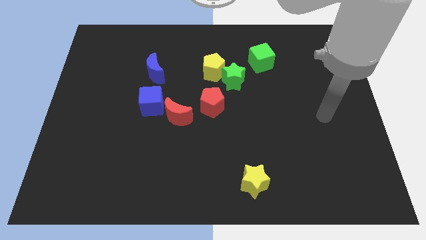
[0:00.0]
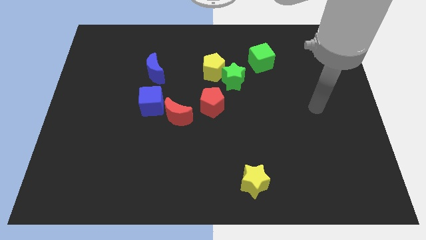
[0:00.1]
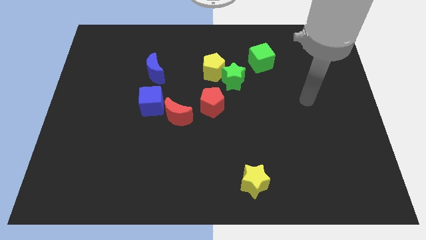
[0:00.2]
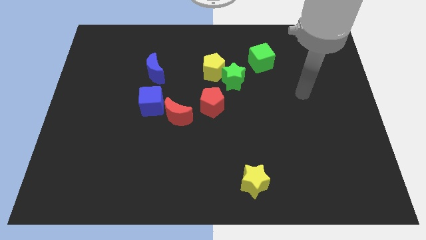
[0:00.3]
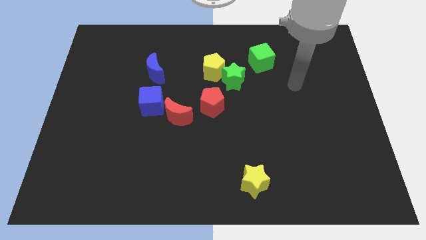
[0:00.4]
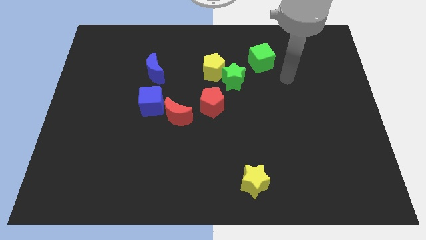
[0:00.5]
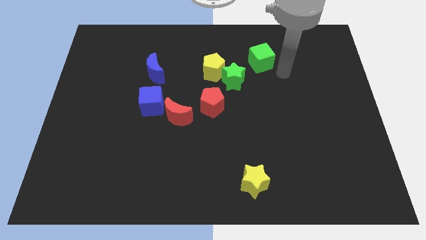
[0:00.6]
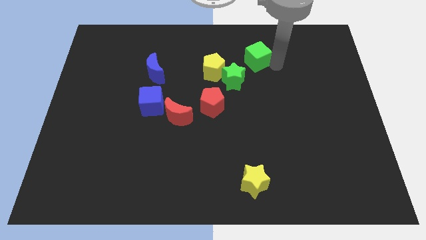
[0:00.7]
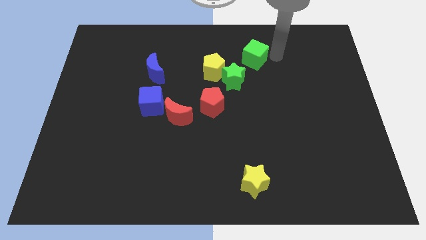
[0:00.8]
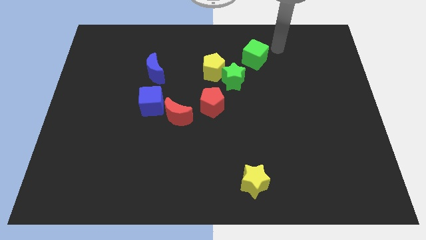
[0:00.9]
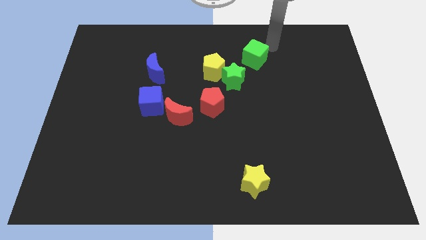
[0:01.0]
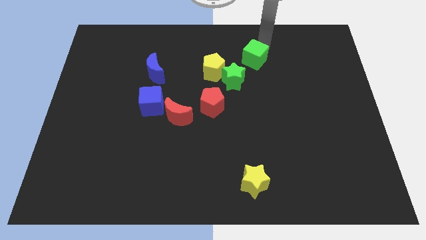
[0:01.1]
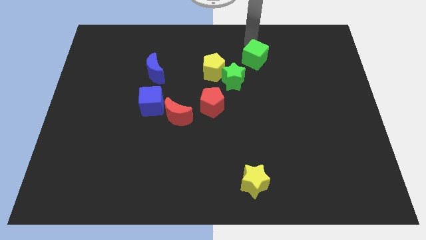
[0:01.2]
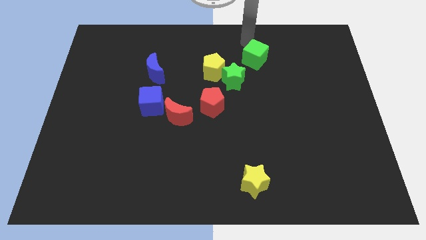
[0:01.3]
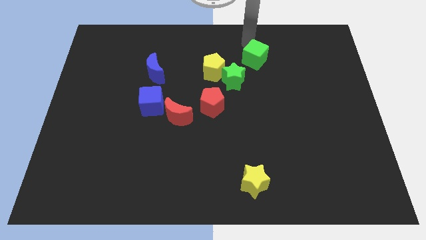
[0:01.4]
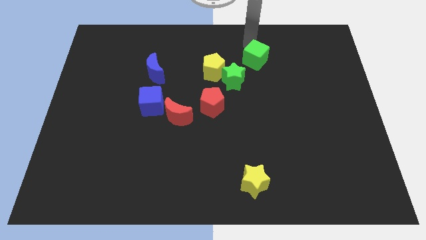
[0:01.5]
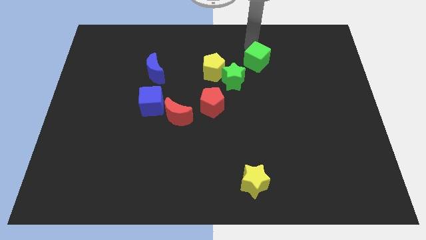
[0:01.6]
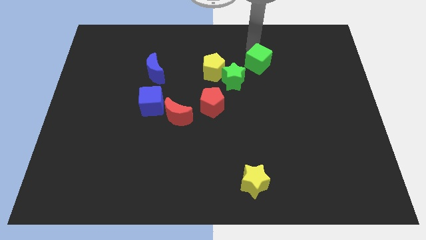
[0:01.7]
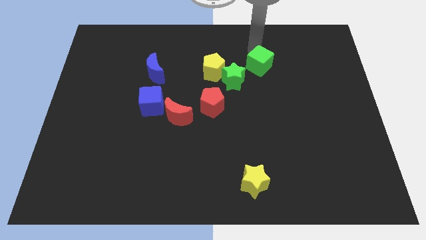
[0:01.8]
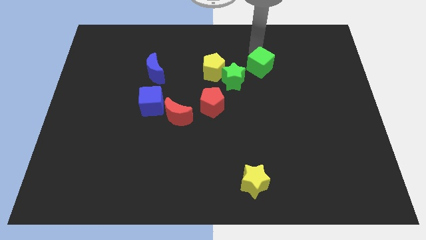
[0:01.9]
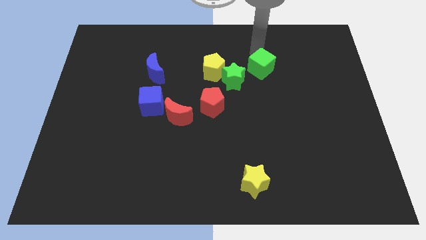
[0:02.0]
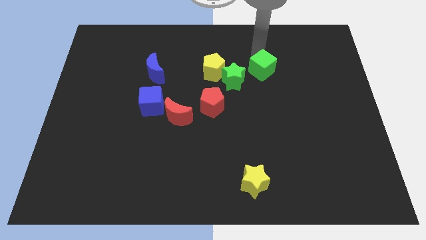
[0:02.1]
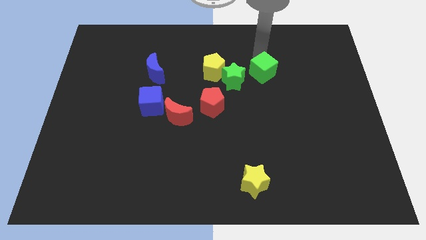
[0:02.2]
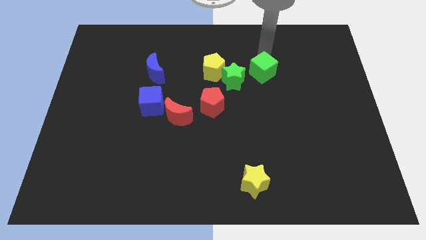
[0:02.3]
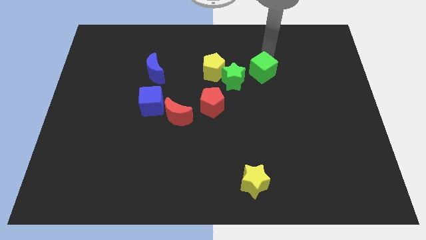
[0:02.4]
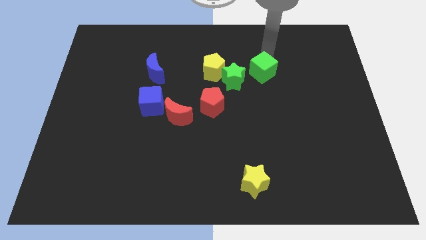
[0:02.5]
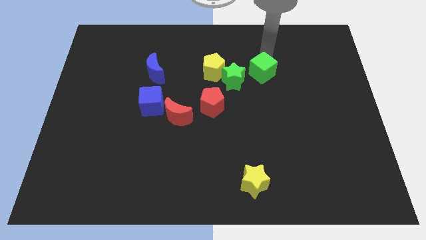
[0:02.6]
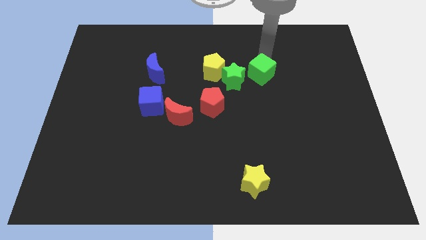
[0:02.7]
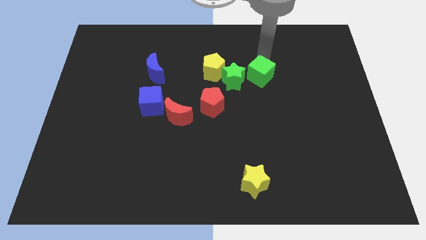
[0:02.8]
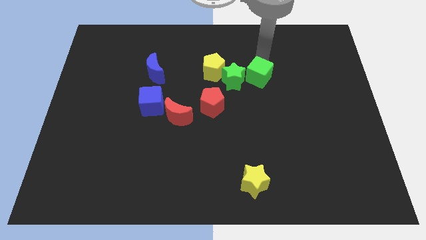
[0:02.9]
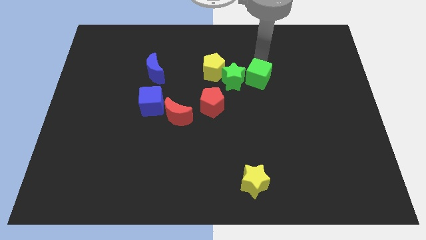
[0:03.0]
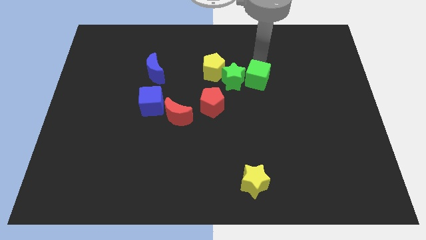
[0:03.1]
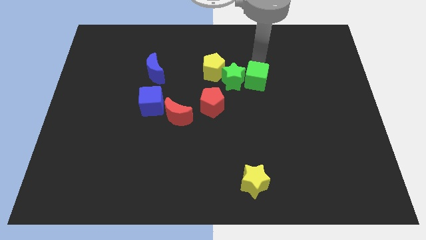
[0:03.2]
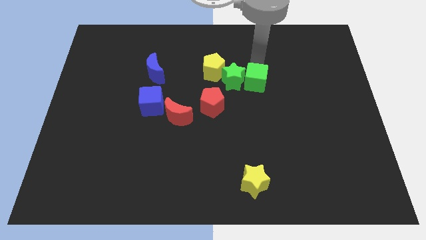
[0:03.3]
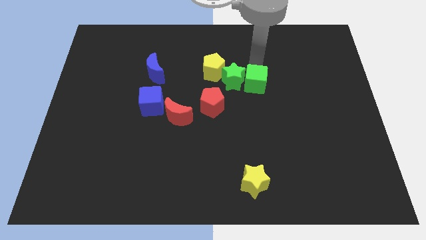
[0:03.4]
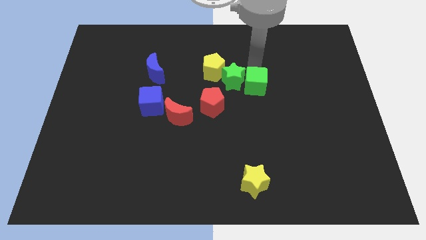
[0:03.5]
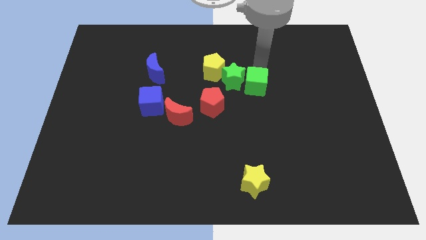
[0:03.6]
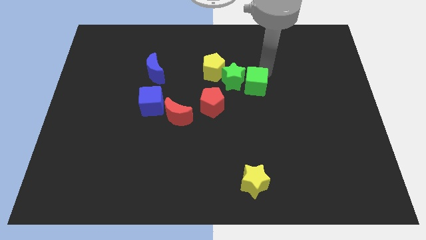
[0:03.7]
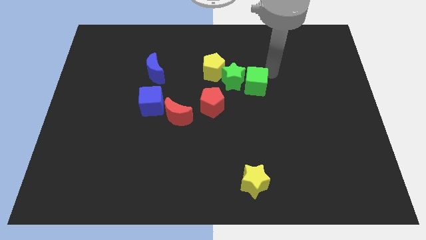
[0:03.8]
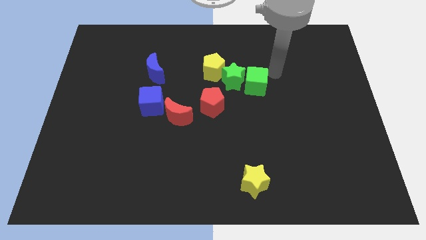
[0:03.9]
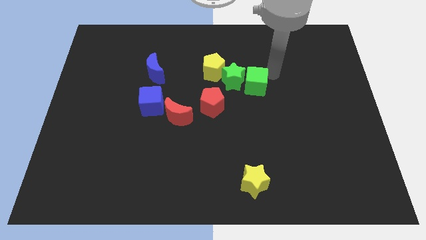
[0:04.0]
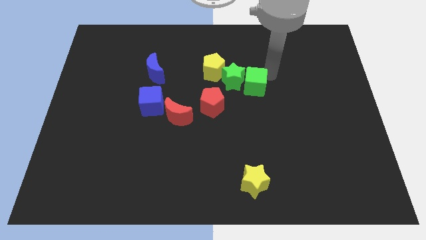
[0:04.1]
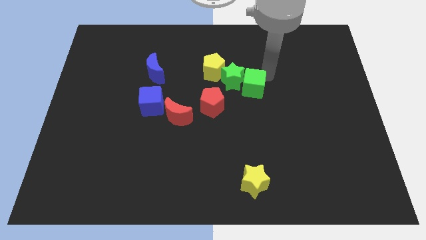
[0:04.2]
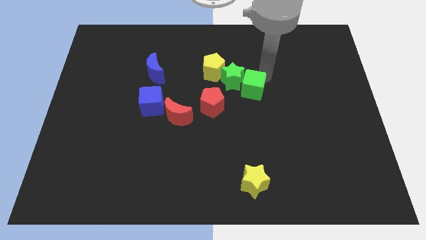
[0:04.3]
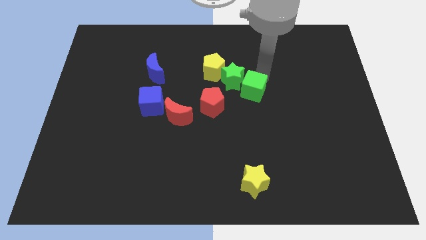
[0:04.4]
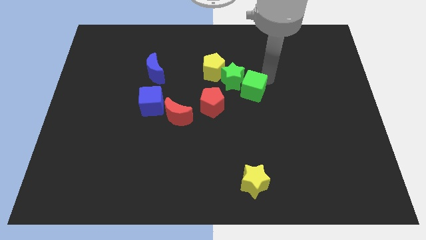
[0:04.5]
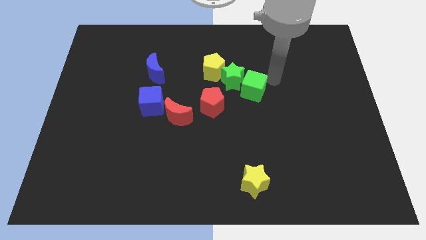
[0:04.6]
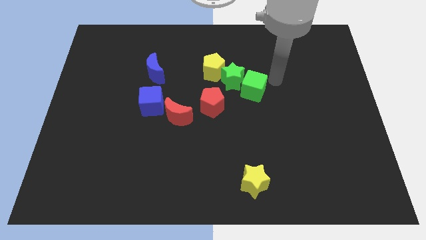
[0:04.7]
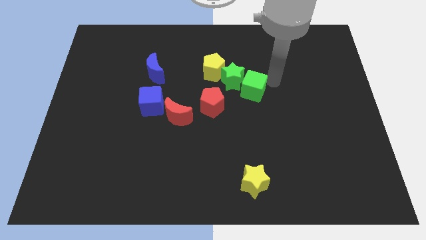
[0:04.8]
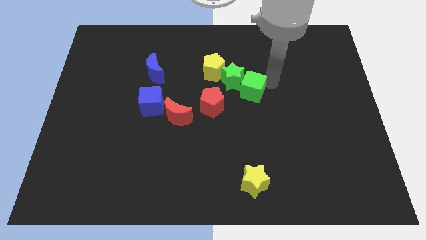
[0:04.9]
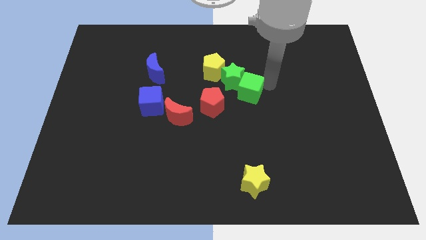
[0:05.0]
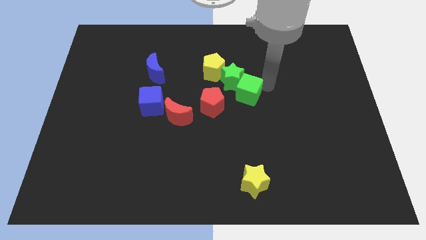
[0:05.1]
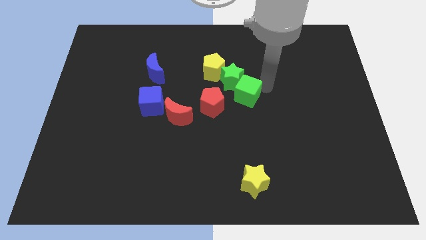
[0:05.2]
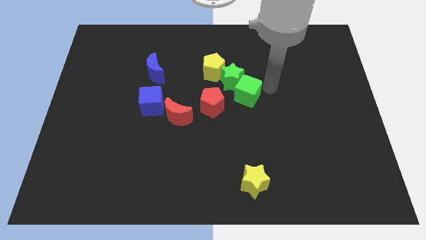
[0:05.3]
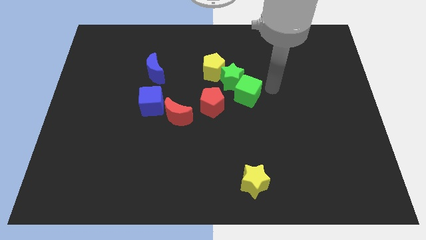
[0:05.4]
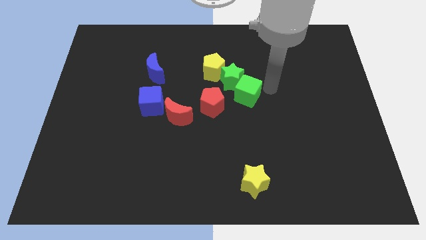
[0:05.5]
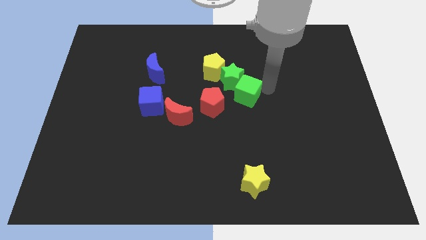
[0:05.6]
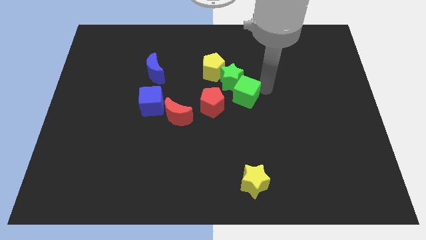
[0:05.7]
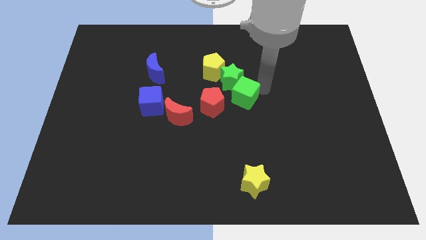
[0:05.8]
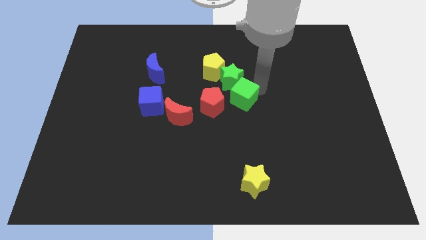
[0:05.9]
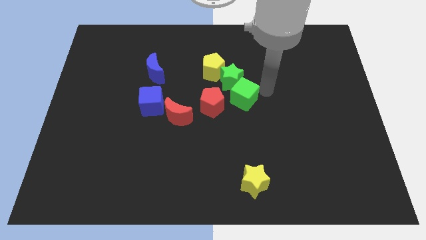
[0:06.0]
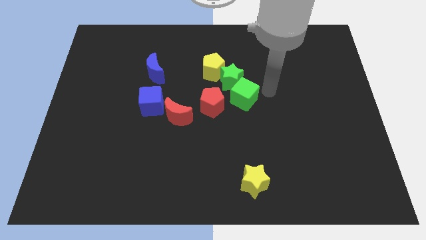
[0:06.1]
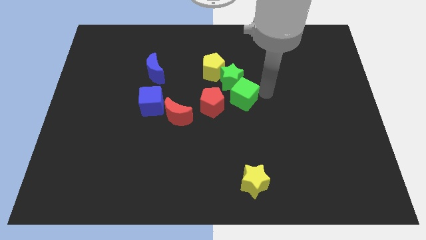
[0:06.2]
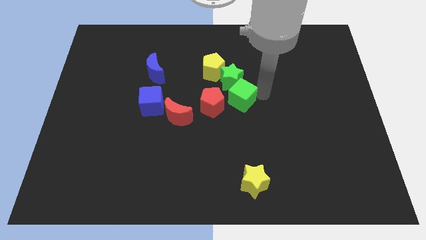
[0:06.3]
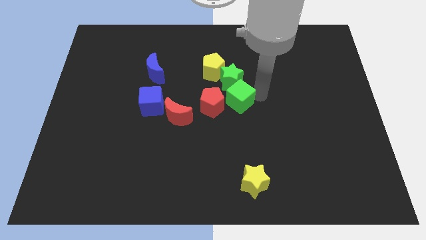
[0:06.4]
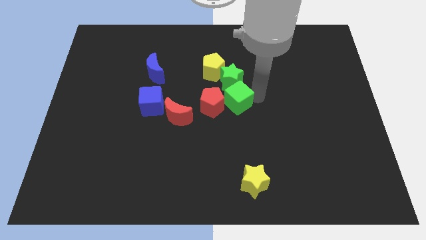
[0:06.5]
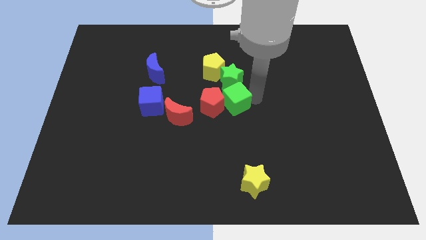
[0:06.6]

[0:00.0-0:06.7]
push the green cube next to the red pentagon

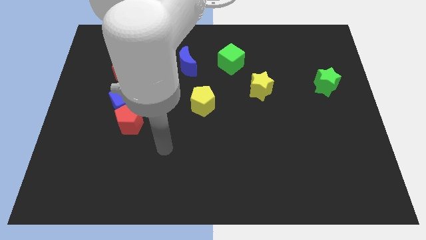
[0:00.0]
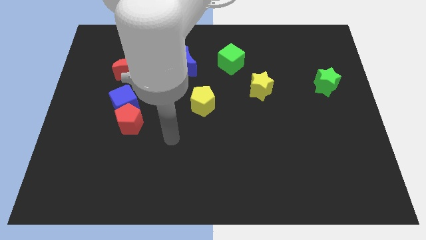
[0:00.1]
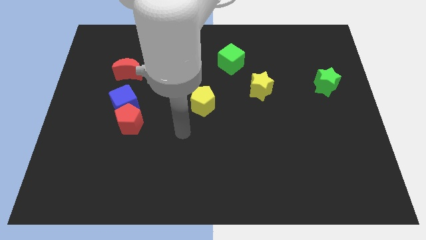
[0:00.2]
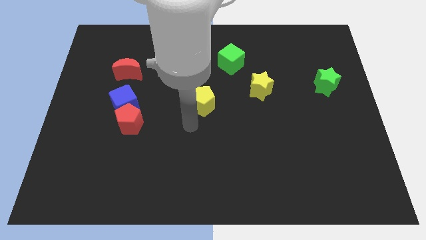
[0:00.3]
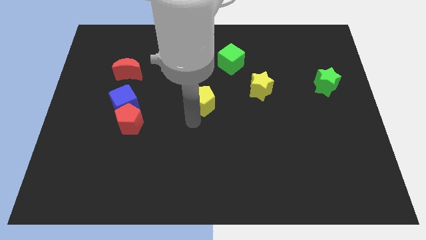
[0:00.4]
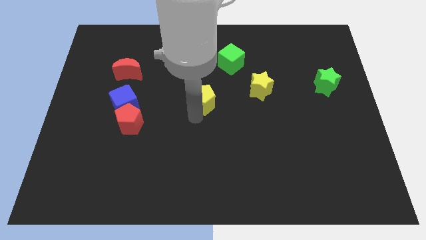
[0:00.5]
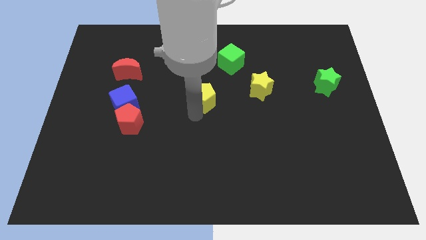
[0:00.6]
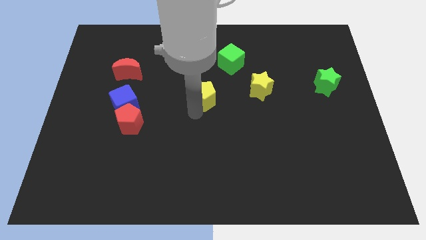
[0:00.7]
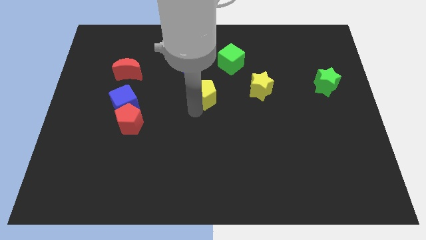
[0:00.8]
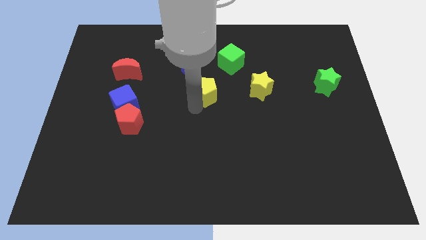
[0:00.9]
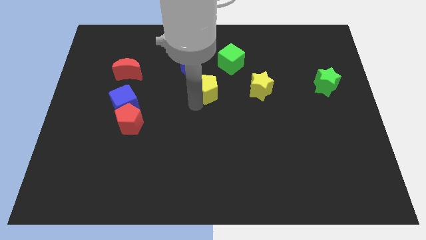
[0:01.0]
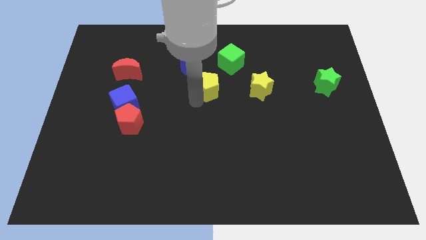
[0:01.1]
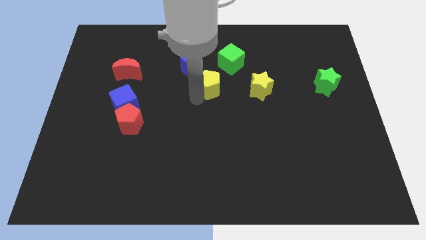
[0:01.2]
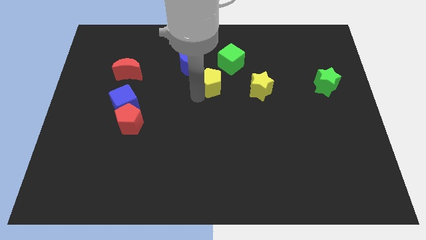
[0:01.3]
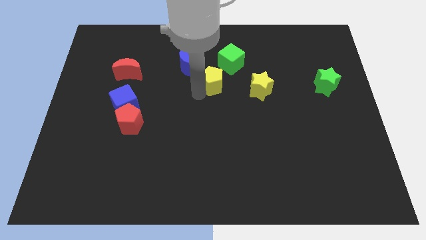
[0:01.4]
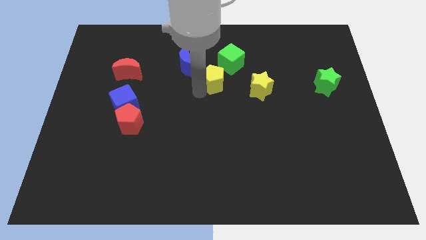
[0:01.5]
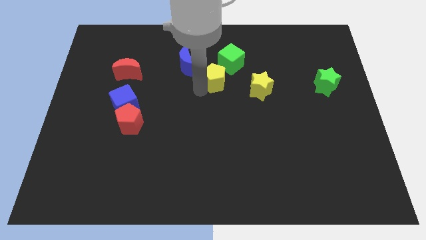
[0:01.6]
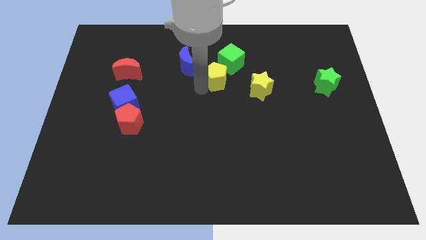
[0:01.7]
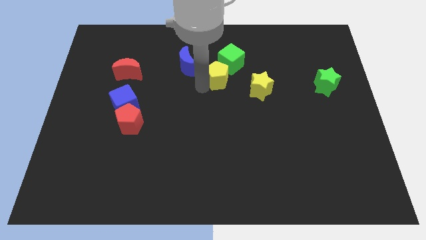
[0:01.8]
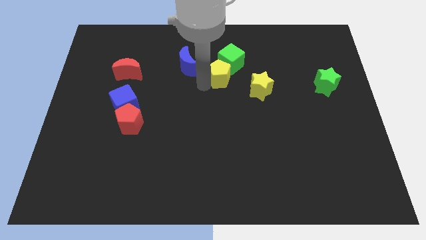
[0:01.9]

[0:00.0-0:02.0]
push the yellow pentagon towards the green cube
